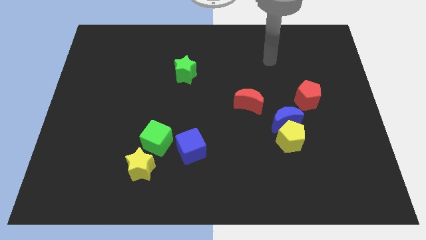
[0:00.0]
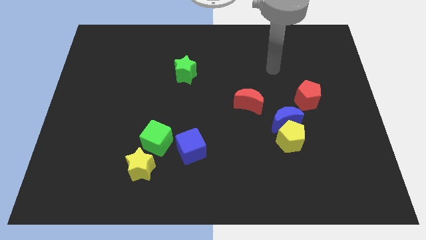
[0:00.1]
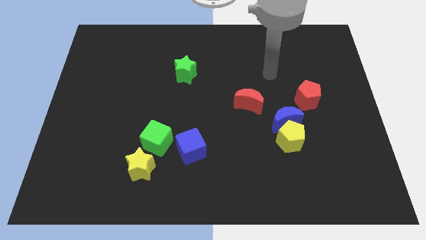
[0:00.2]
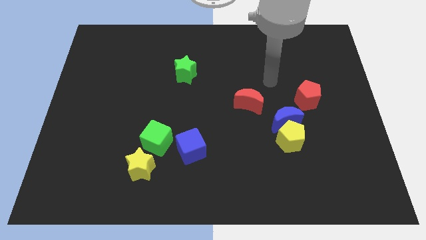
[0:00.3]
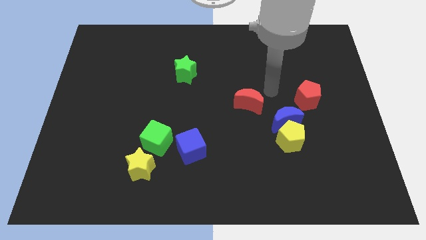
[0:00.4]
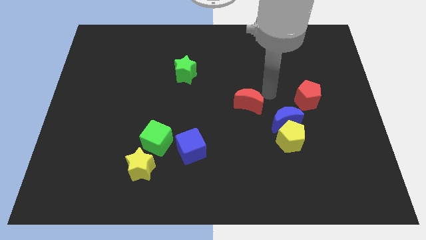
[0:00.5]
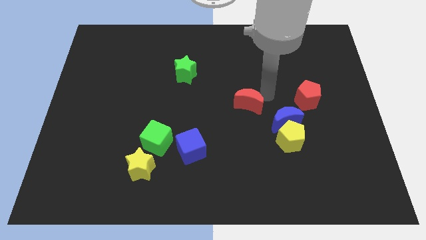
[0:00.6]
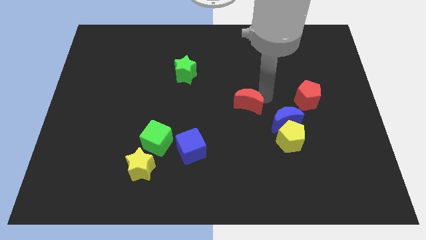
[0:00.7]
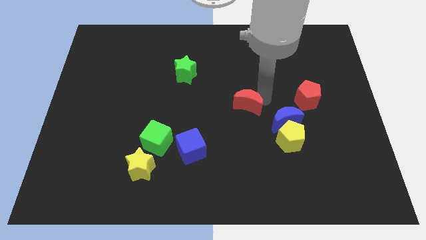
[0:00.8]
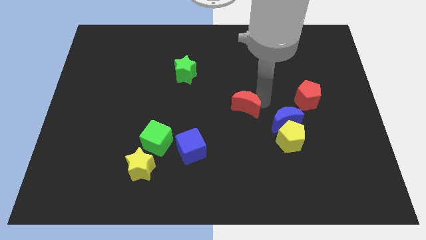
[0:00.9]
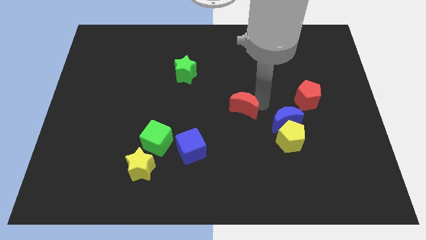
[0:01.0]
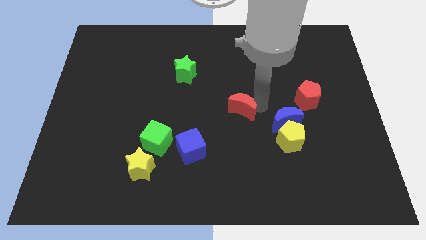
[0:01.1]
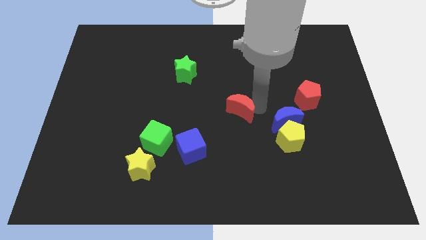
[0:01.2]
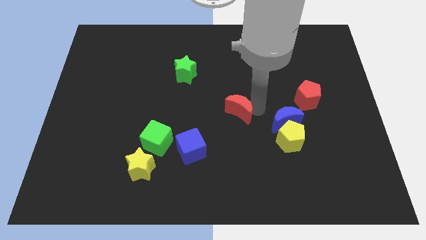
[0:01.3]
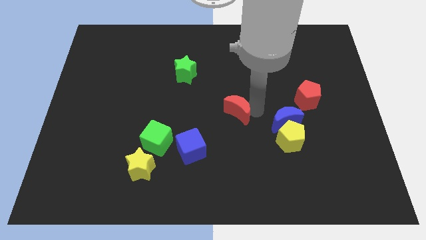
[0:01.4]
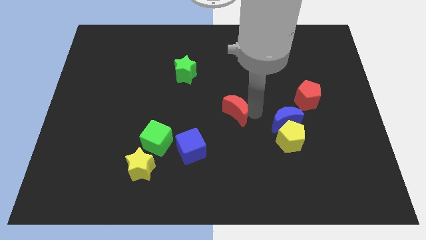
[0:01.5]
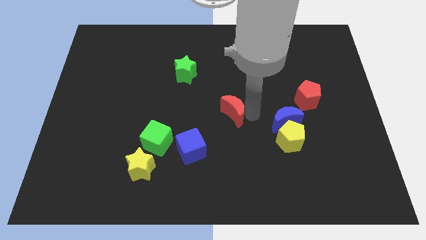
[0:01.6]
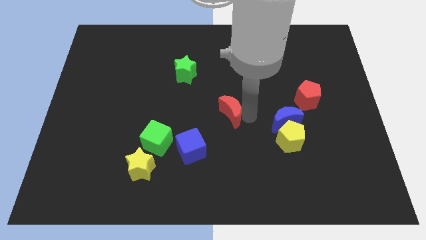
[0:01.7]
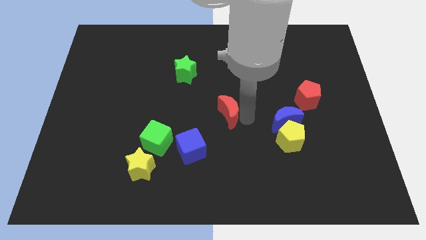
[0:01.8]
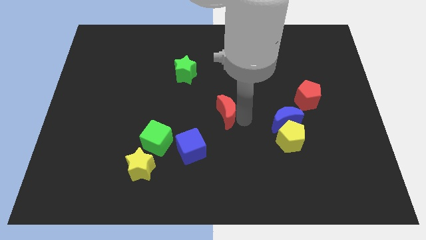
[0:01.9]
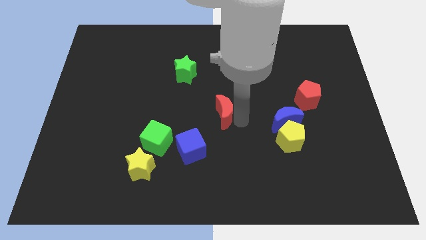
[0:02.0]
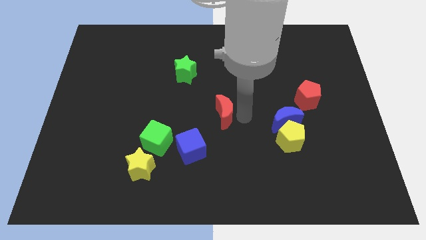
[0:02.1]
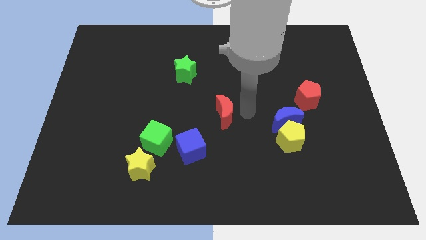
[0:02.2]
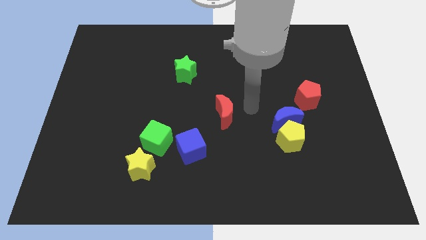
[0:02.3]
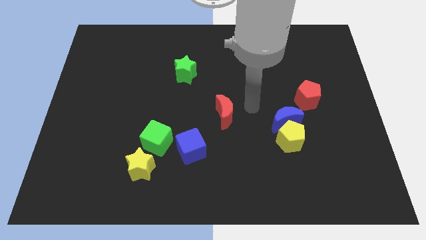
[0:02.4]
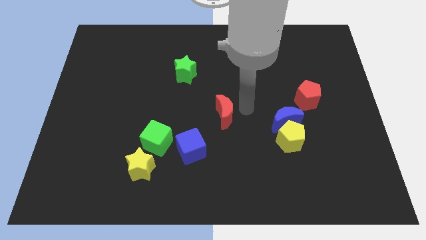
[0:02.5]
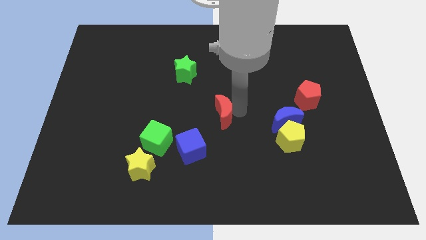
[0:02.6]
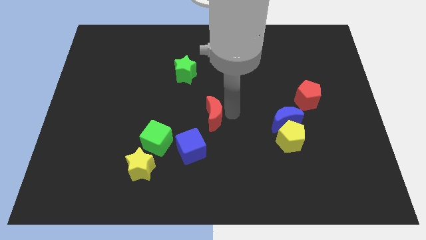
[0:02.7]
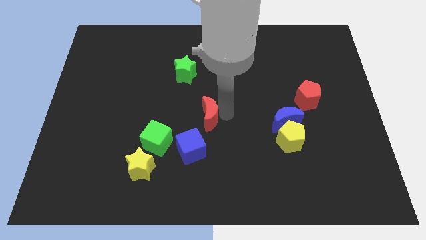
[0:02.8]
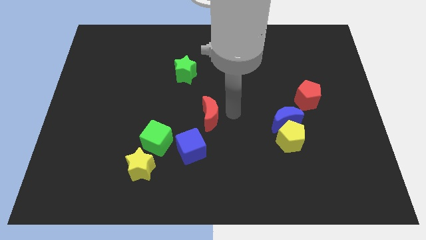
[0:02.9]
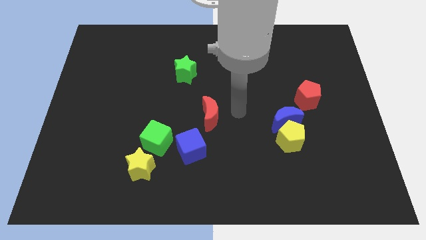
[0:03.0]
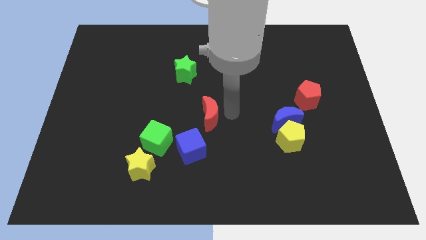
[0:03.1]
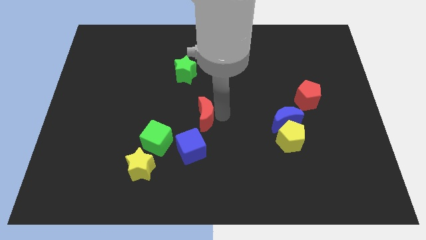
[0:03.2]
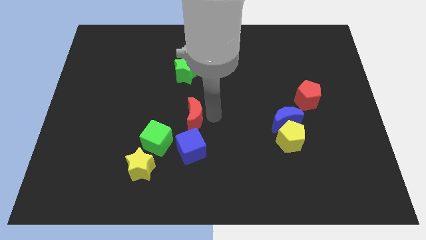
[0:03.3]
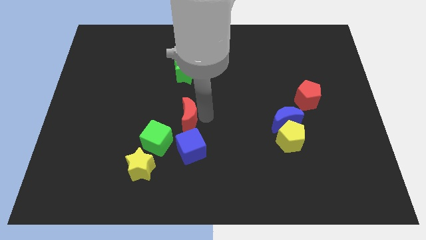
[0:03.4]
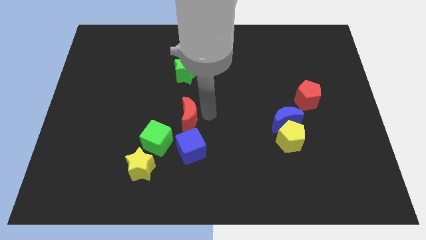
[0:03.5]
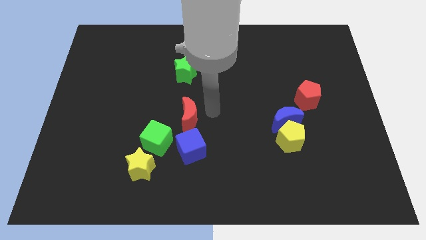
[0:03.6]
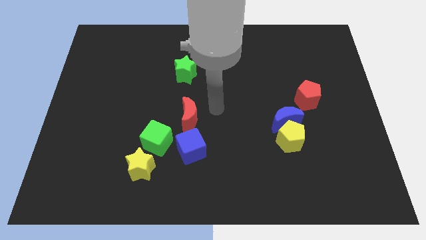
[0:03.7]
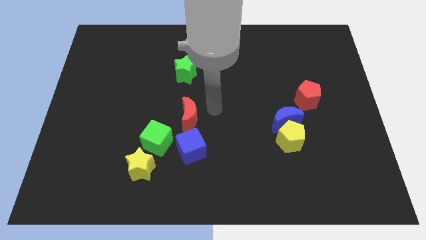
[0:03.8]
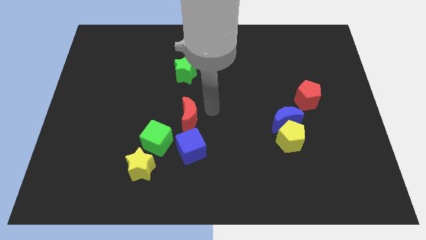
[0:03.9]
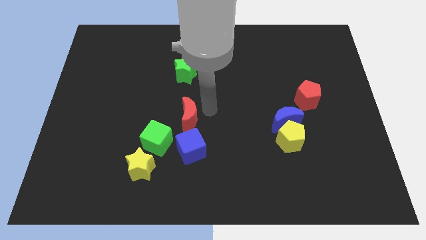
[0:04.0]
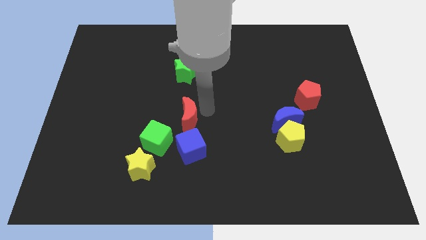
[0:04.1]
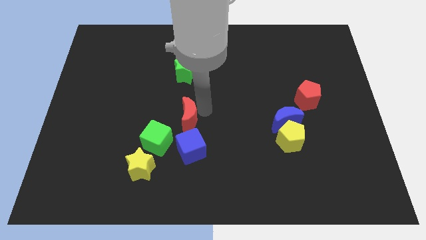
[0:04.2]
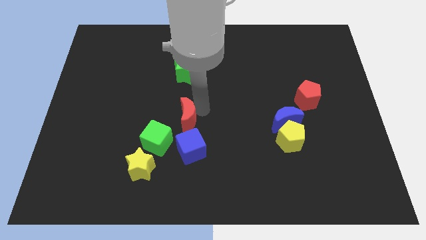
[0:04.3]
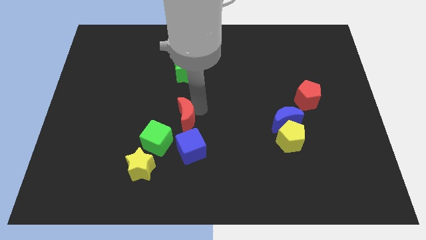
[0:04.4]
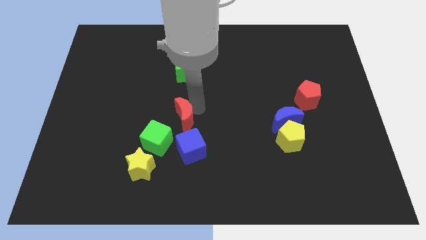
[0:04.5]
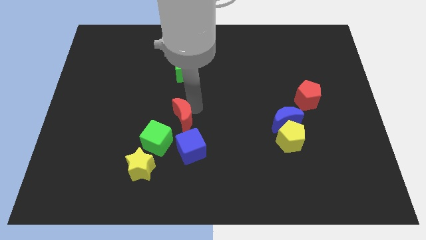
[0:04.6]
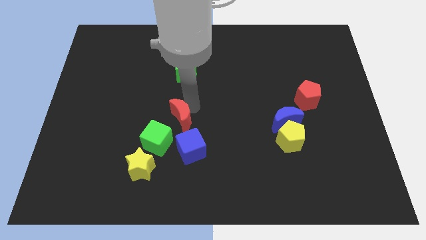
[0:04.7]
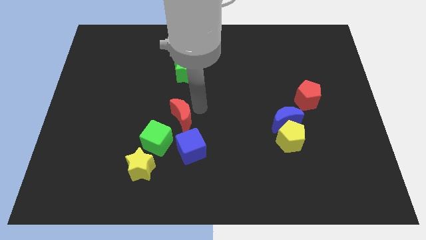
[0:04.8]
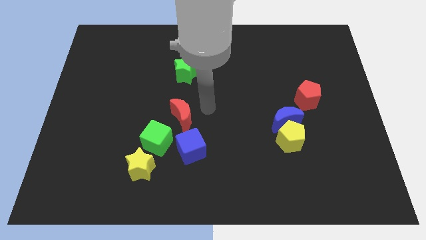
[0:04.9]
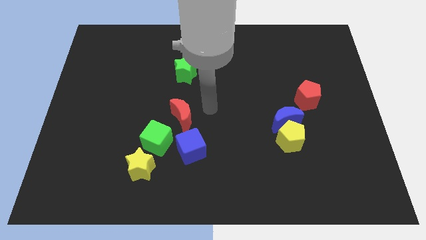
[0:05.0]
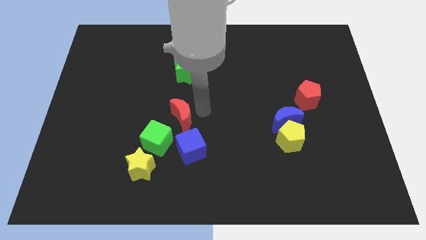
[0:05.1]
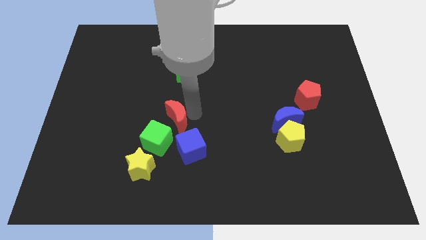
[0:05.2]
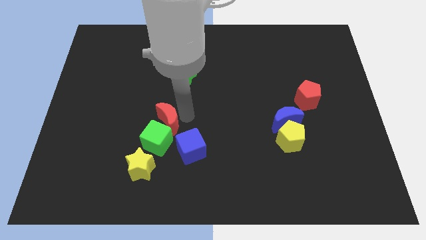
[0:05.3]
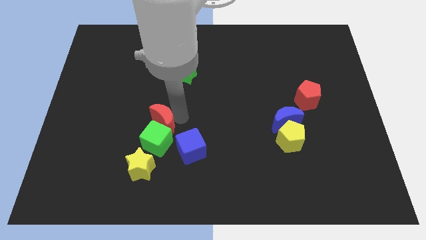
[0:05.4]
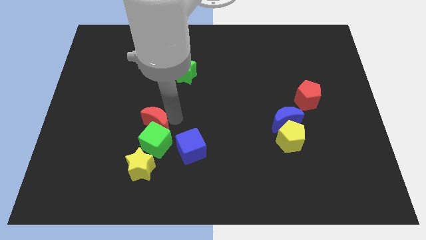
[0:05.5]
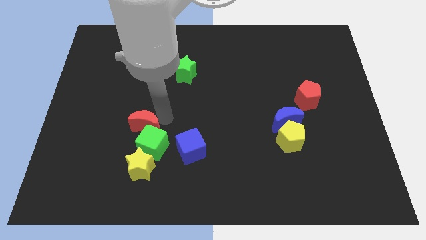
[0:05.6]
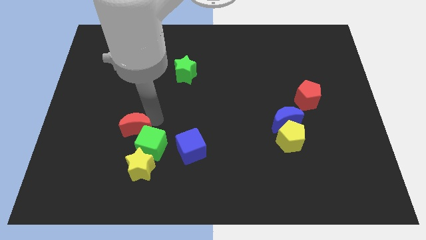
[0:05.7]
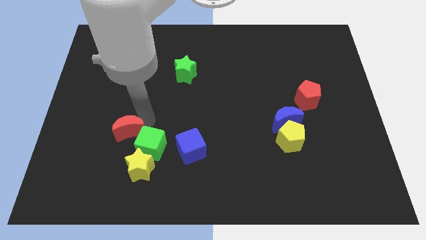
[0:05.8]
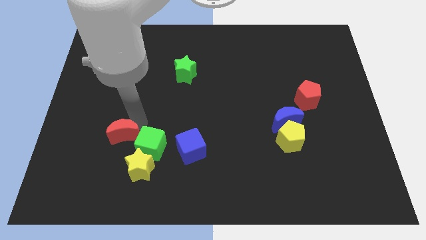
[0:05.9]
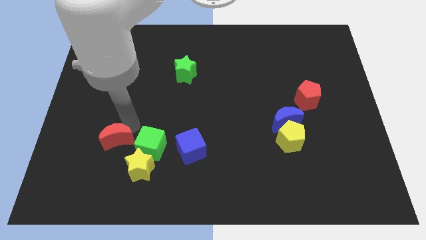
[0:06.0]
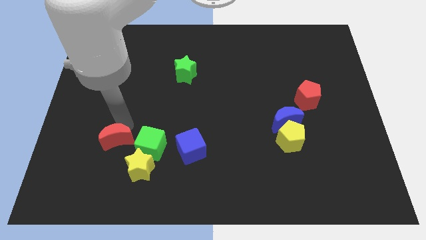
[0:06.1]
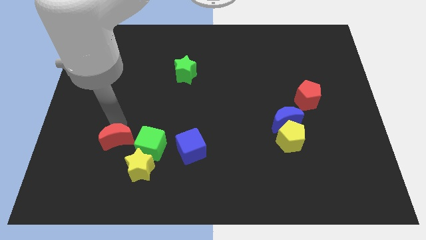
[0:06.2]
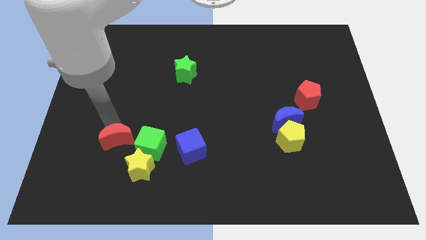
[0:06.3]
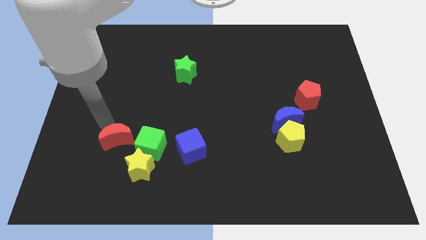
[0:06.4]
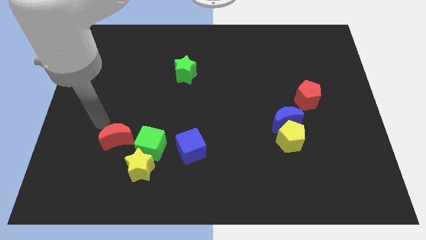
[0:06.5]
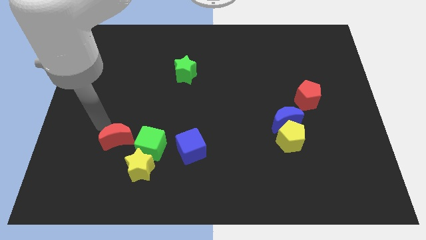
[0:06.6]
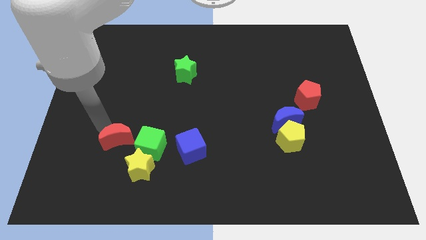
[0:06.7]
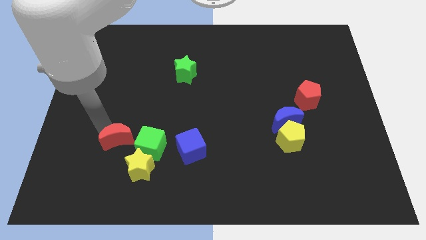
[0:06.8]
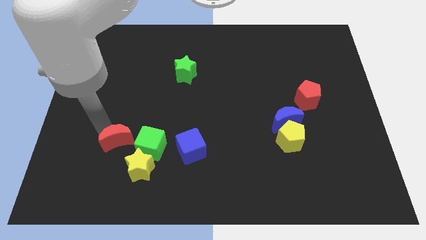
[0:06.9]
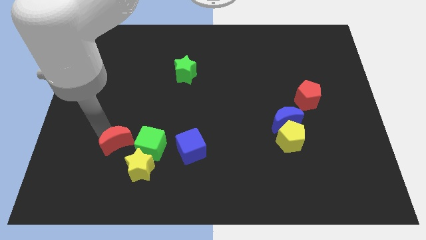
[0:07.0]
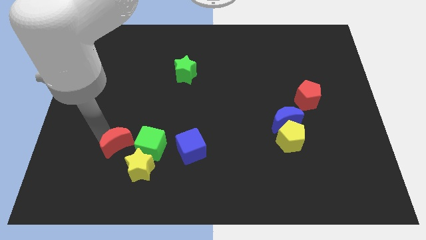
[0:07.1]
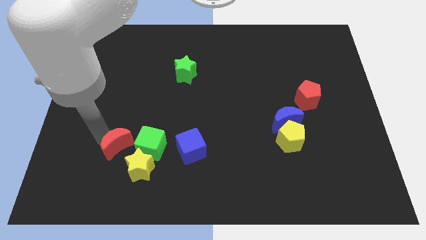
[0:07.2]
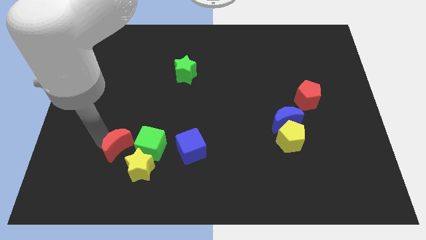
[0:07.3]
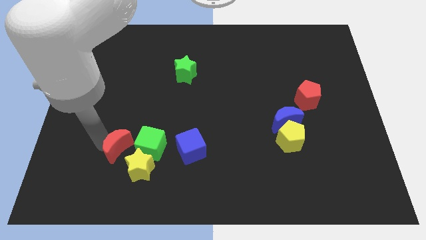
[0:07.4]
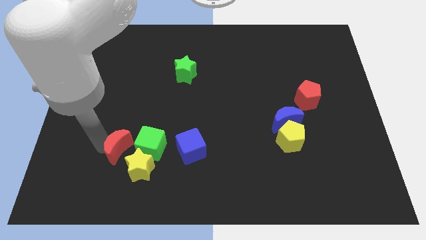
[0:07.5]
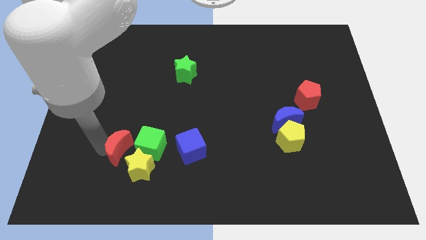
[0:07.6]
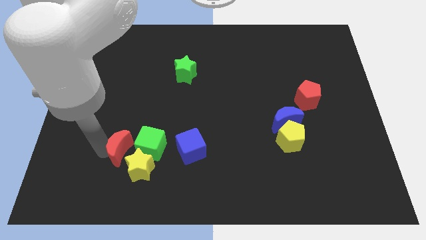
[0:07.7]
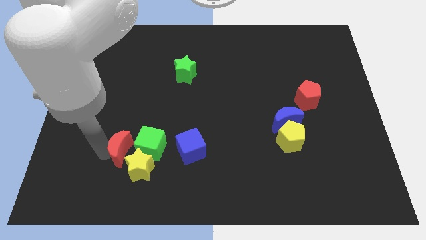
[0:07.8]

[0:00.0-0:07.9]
move the red moon towards the yellow star
